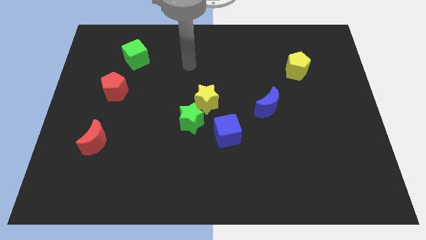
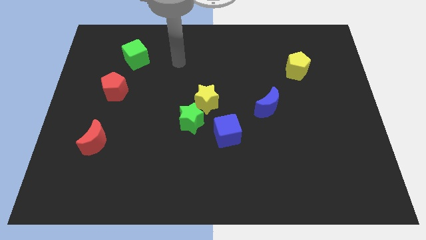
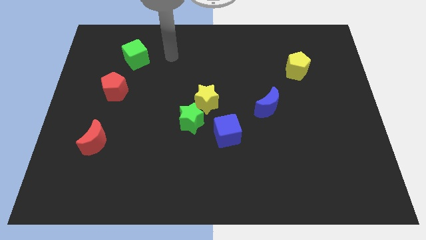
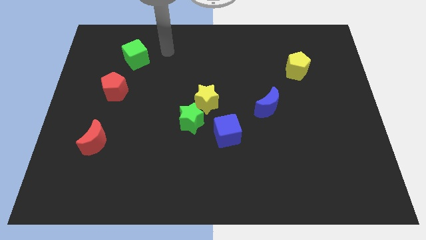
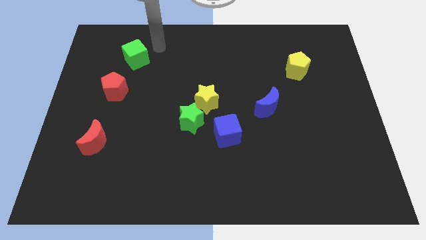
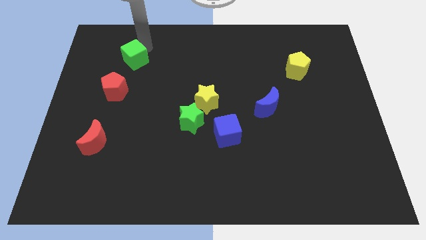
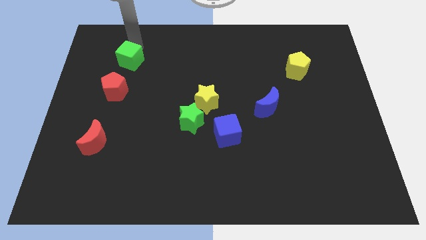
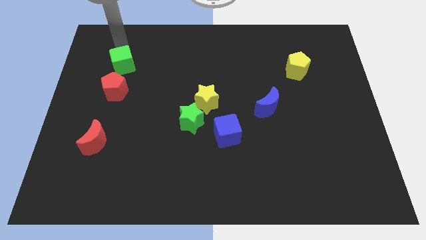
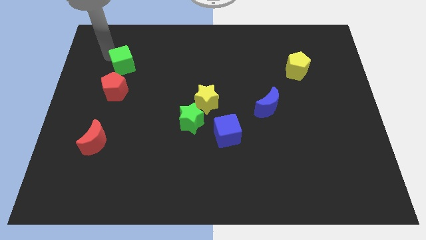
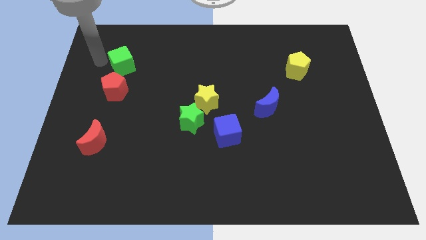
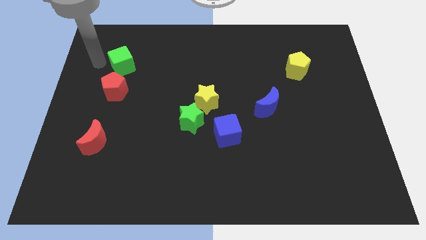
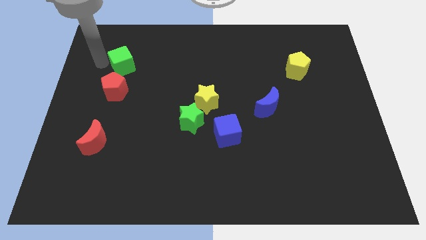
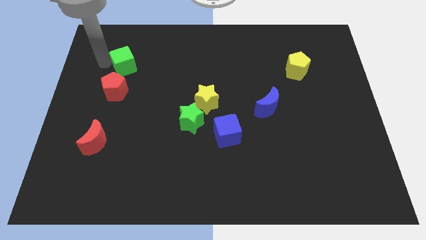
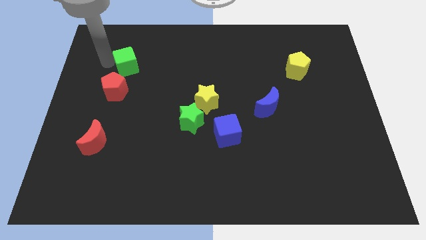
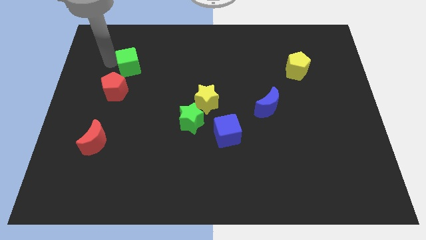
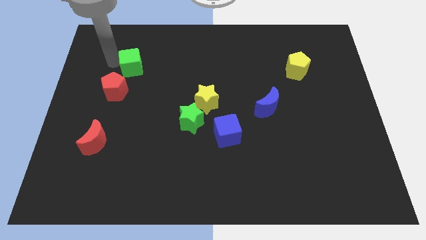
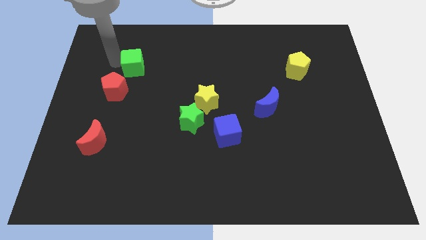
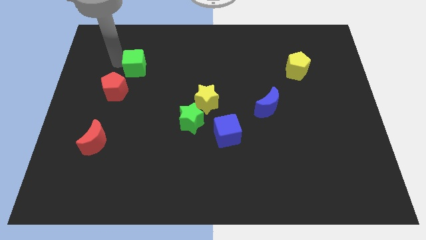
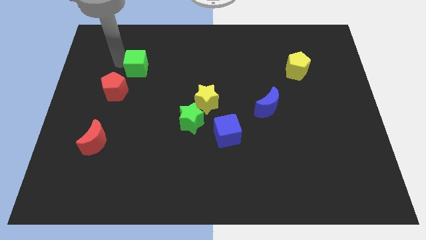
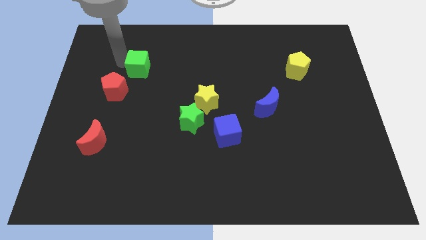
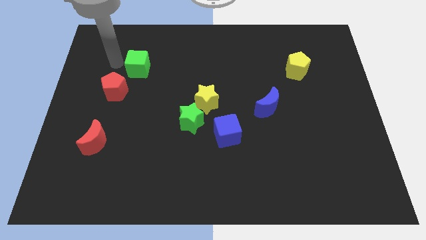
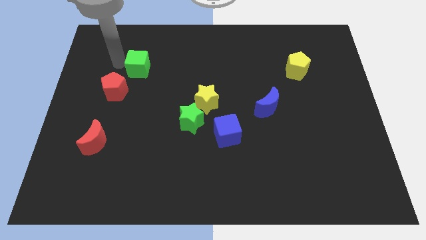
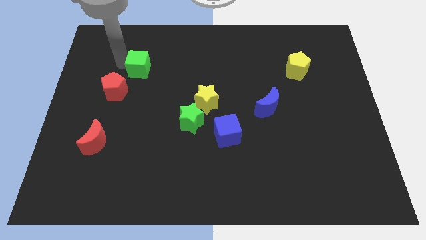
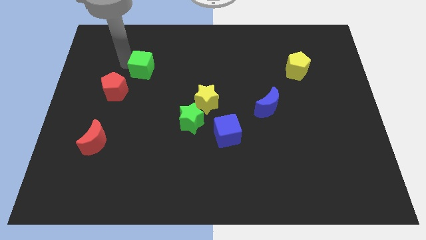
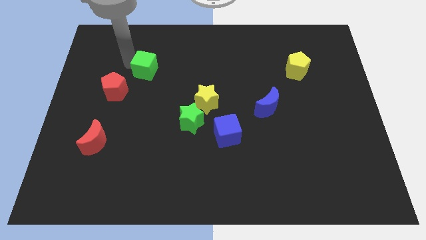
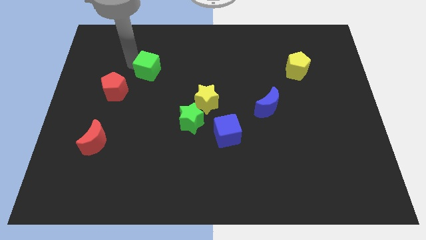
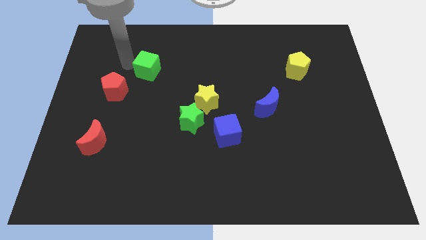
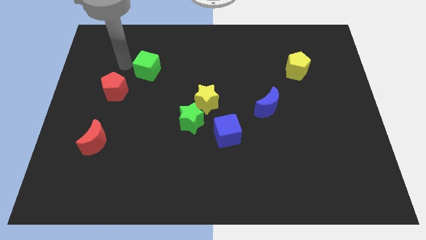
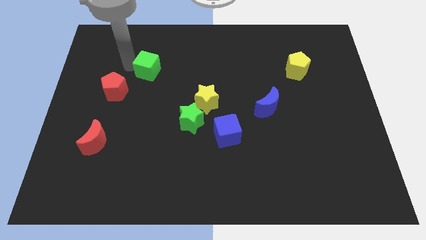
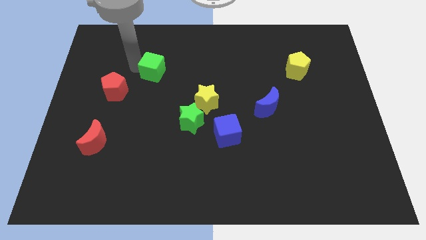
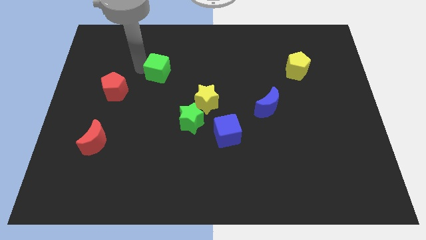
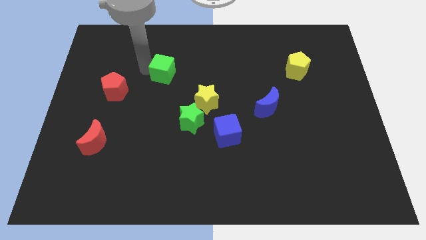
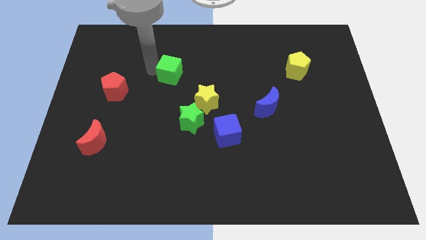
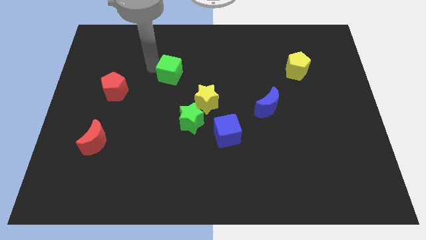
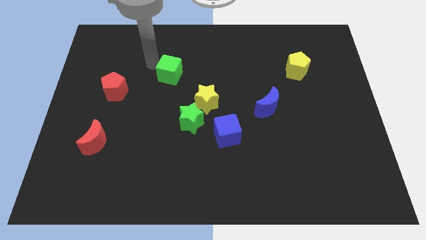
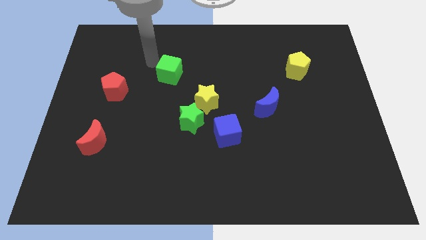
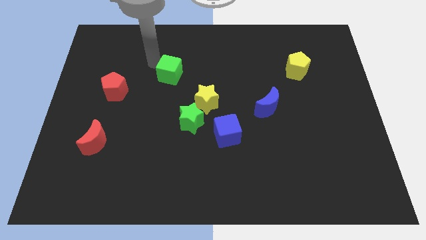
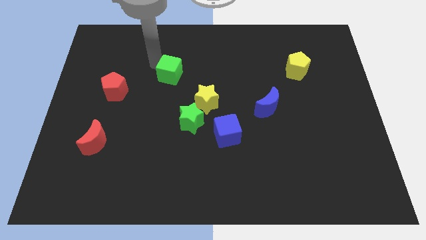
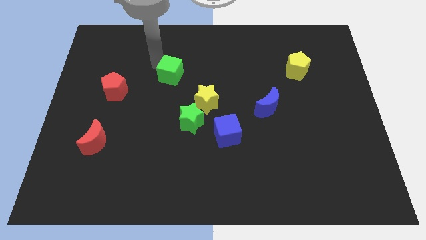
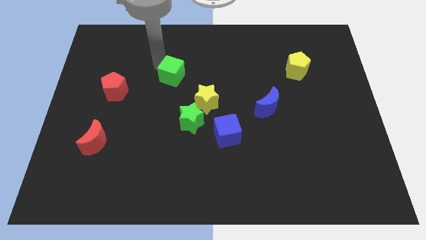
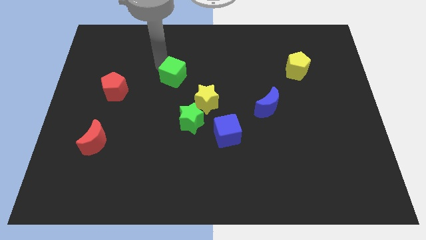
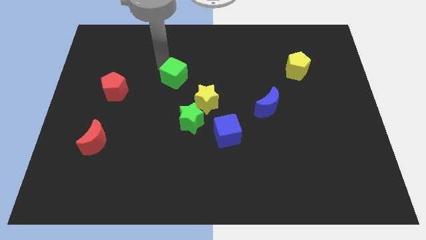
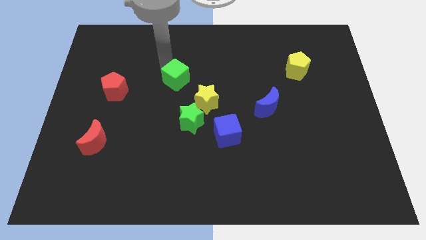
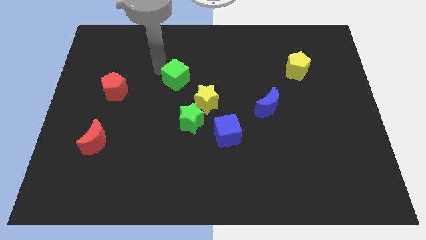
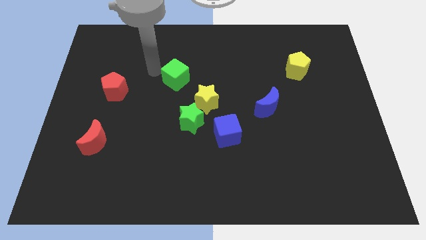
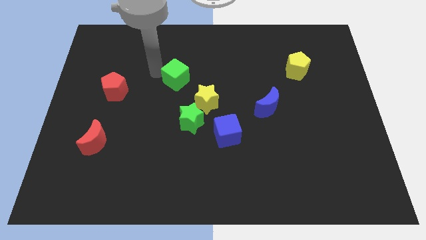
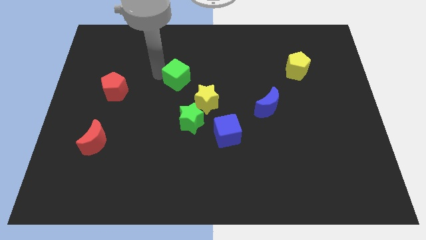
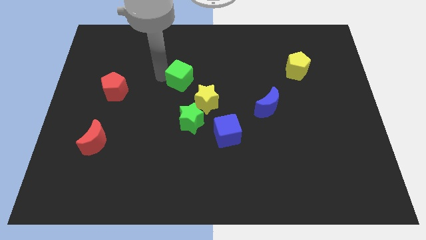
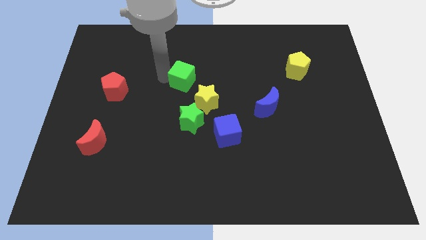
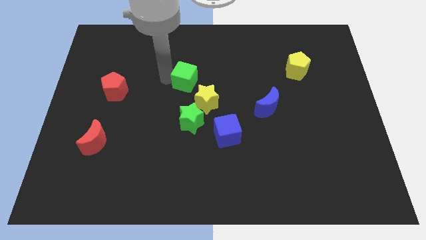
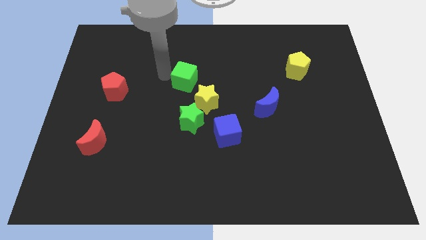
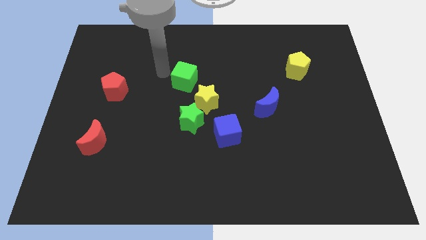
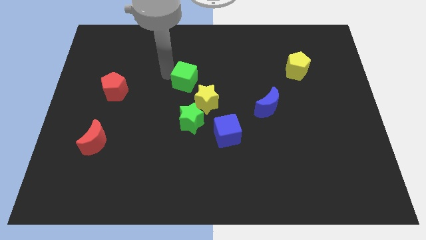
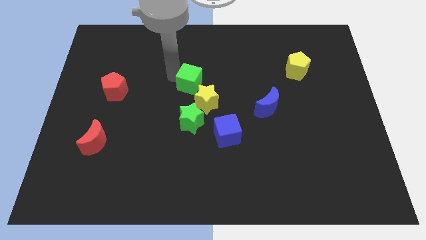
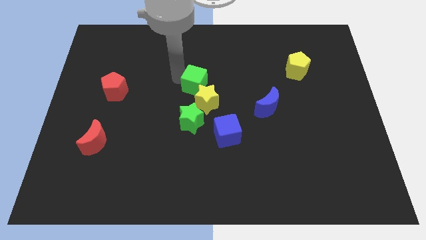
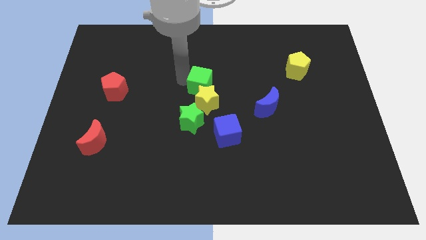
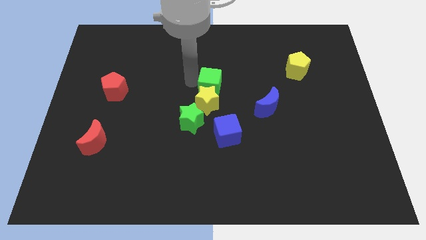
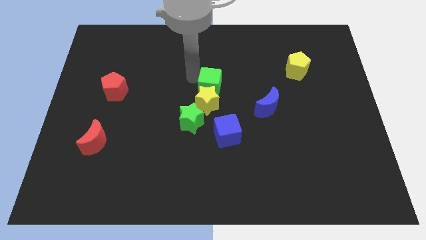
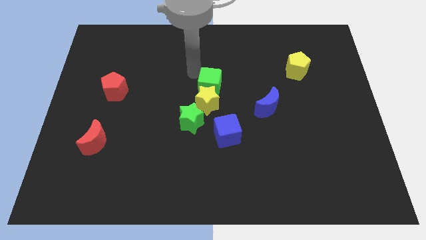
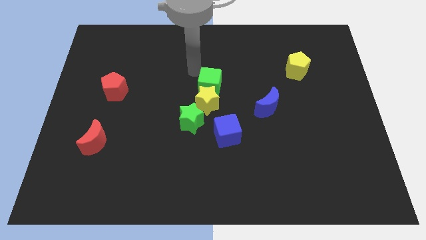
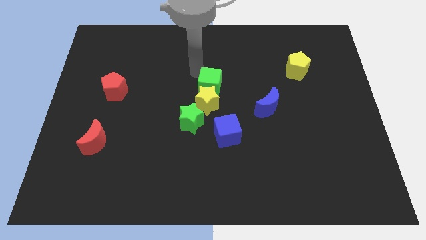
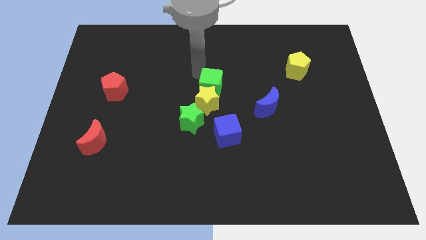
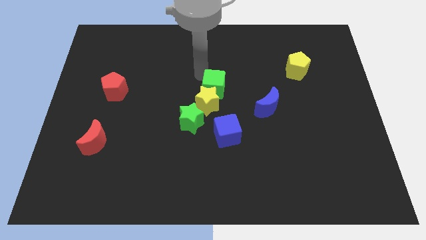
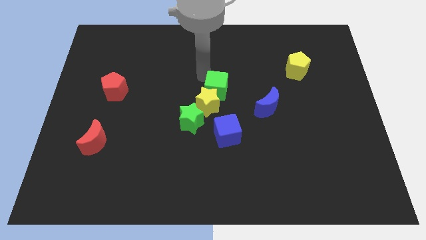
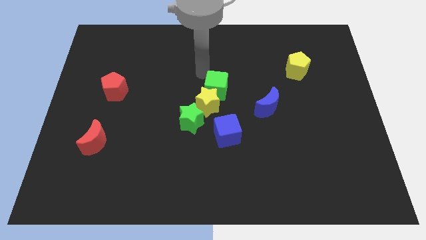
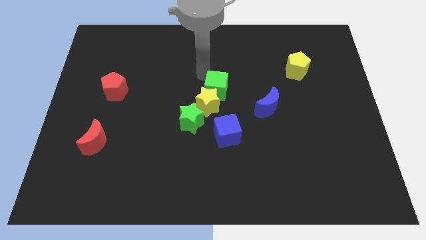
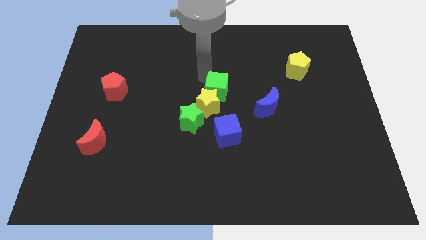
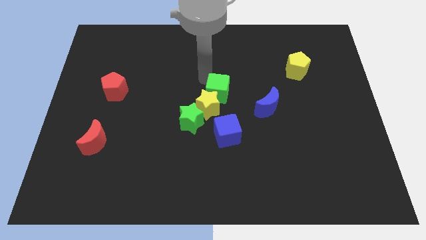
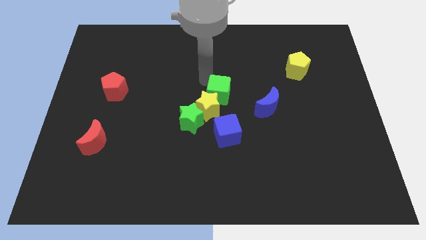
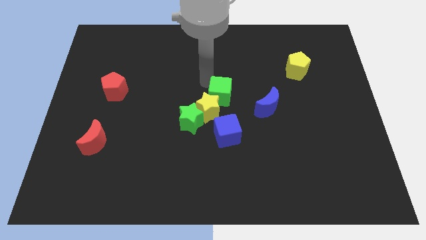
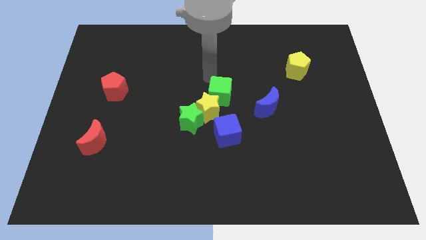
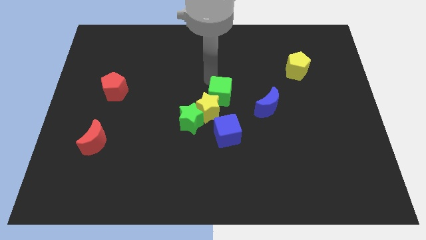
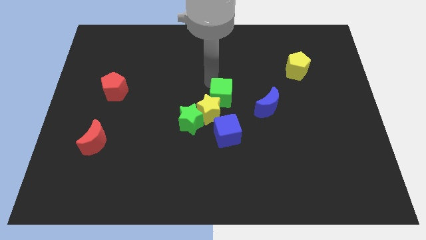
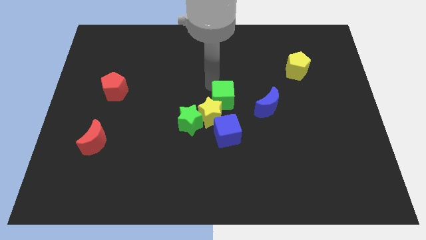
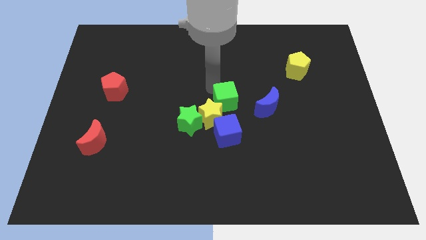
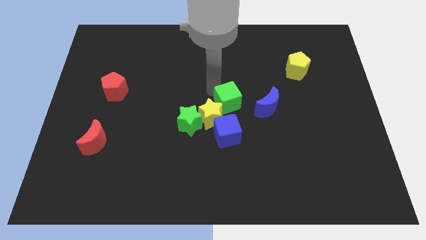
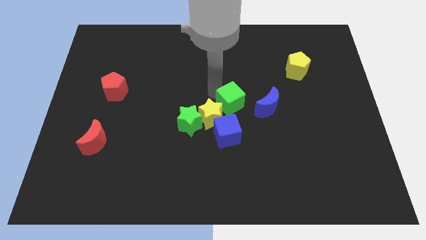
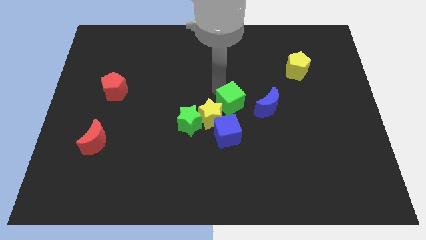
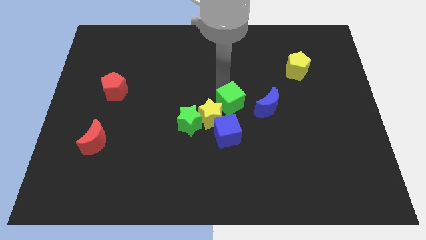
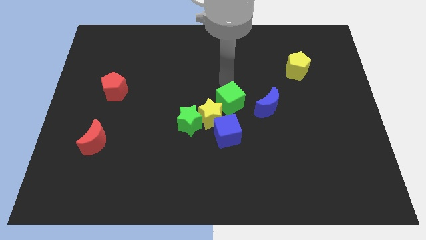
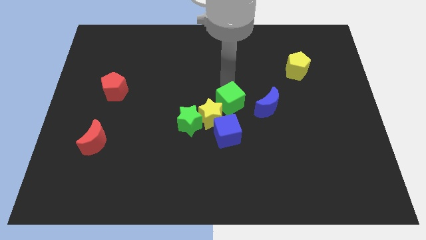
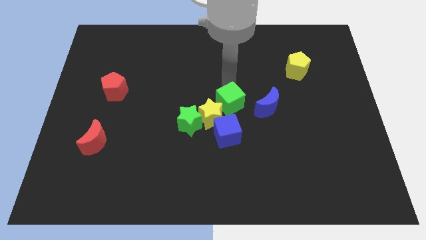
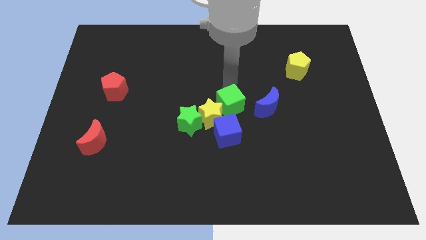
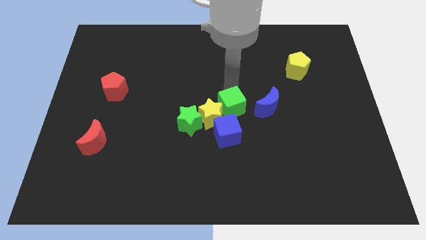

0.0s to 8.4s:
move the green cube right of the green star
